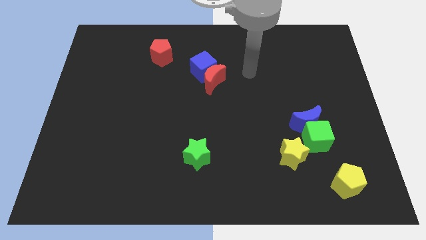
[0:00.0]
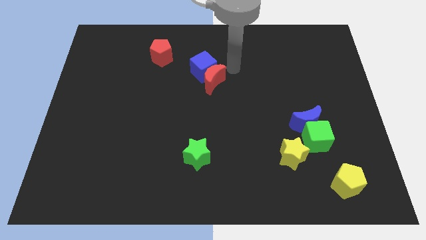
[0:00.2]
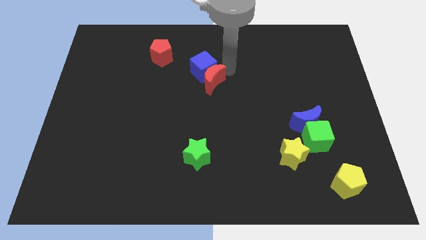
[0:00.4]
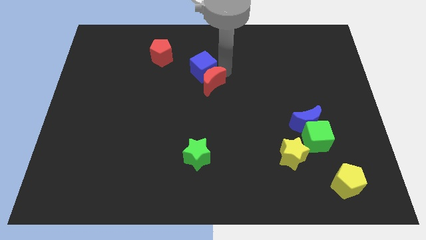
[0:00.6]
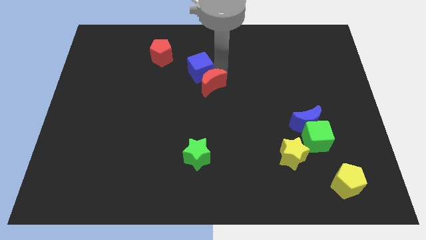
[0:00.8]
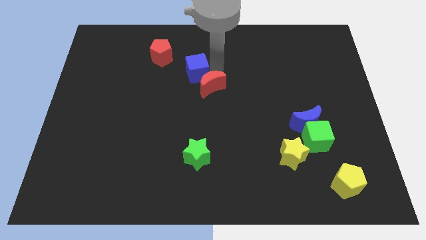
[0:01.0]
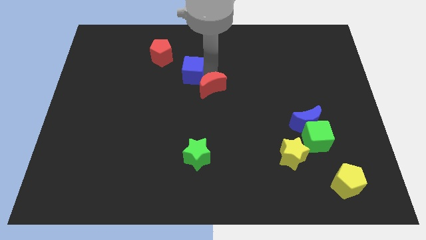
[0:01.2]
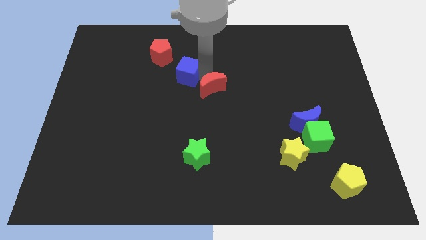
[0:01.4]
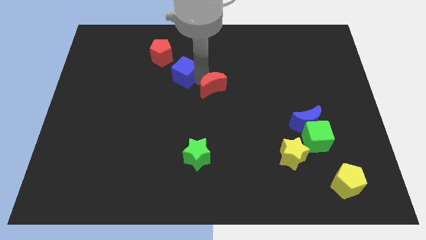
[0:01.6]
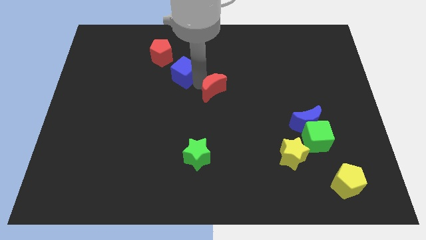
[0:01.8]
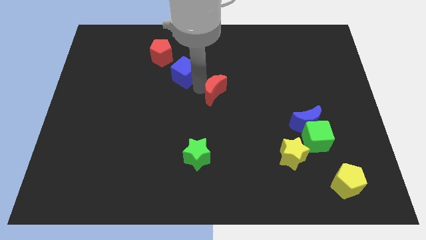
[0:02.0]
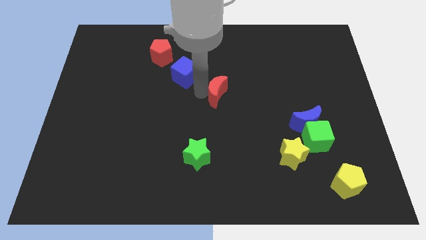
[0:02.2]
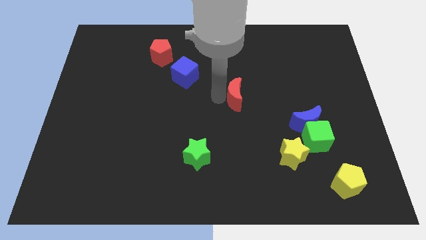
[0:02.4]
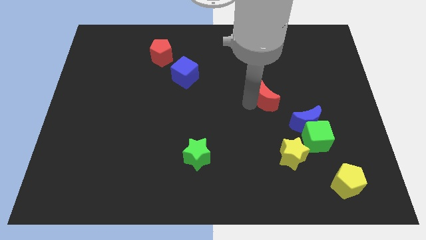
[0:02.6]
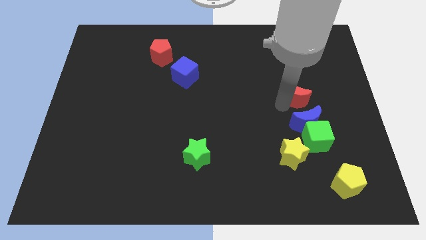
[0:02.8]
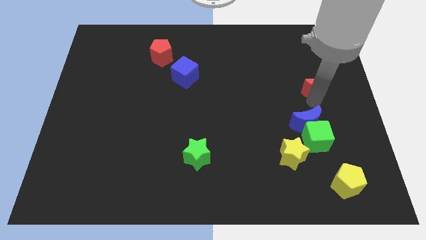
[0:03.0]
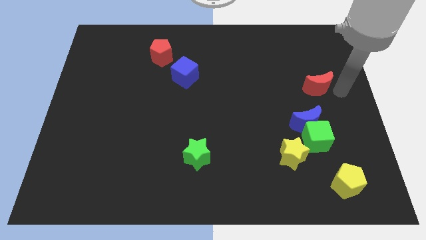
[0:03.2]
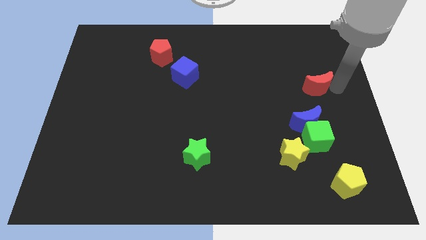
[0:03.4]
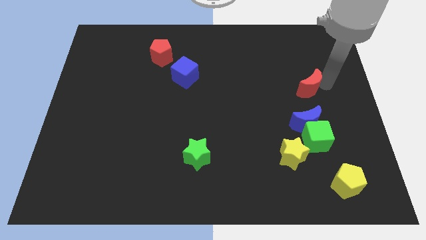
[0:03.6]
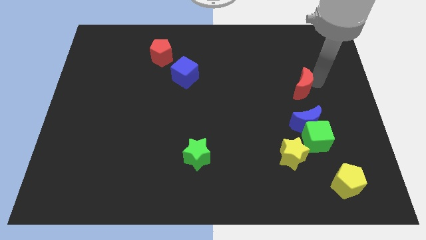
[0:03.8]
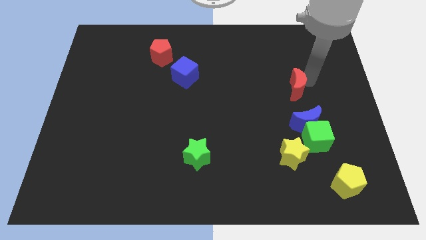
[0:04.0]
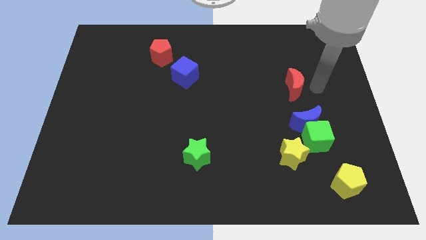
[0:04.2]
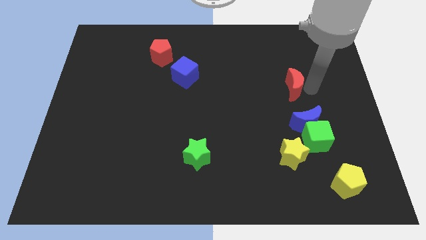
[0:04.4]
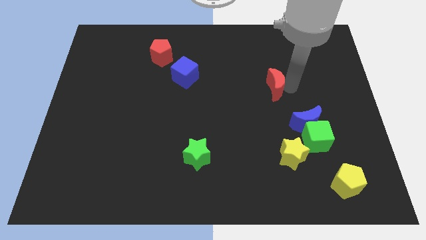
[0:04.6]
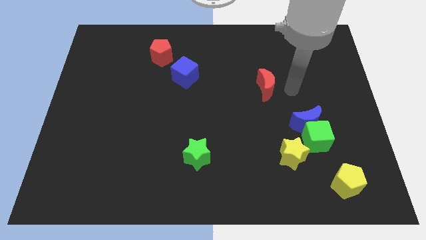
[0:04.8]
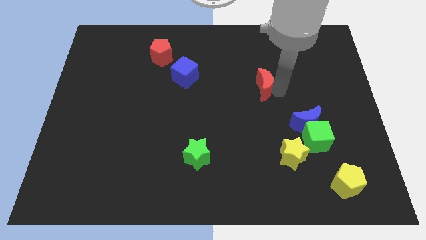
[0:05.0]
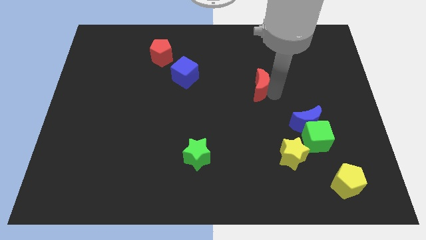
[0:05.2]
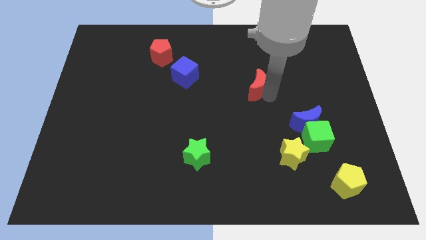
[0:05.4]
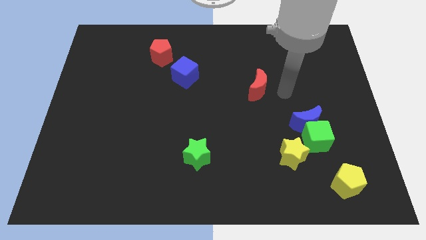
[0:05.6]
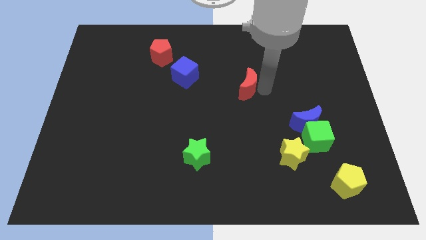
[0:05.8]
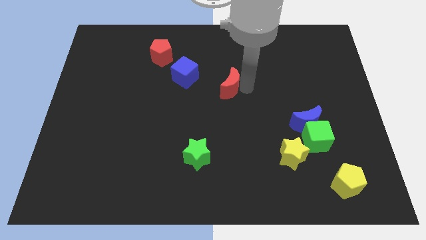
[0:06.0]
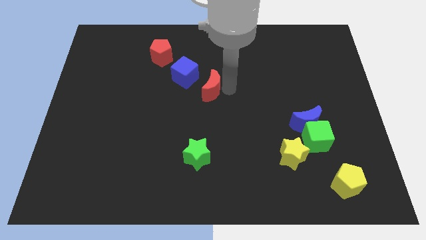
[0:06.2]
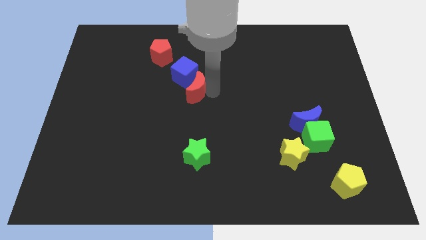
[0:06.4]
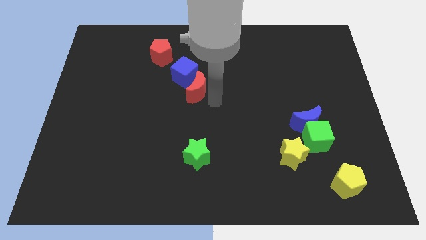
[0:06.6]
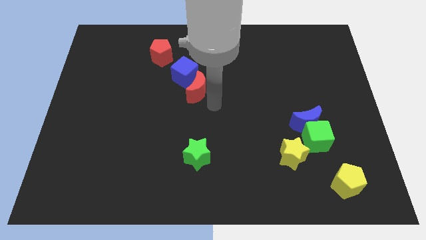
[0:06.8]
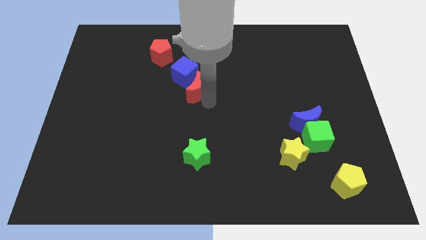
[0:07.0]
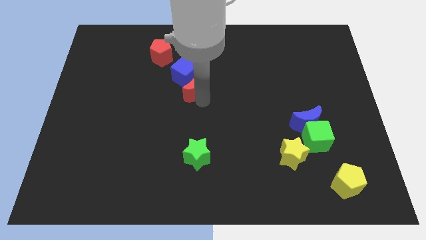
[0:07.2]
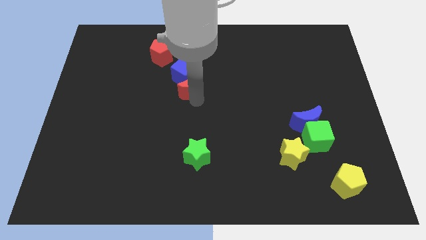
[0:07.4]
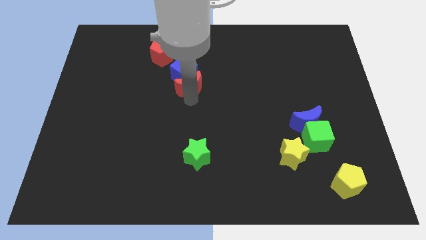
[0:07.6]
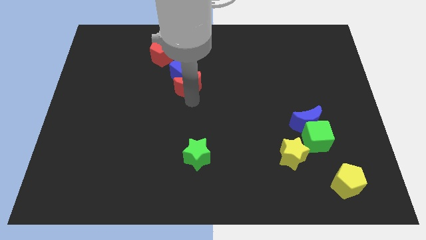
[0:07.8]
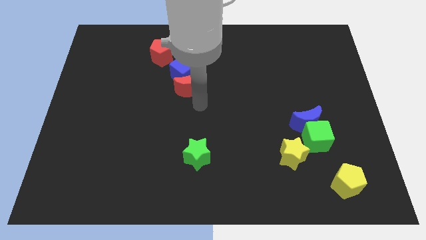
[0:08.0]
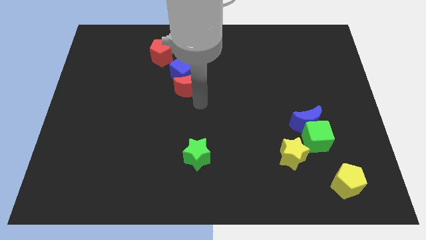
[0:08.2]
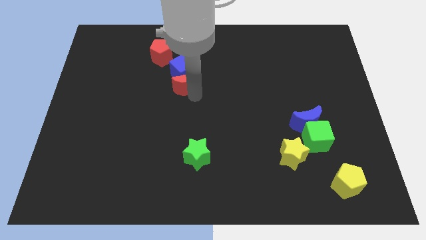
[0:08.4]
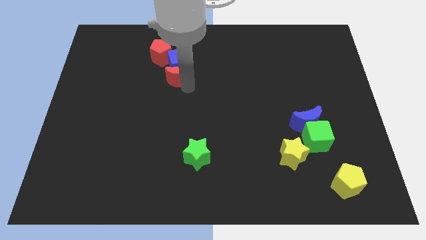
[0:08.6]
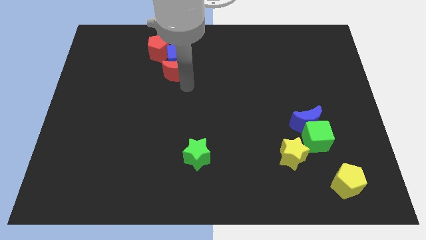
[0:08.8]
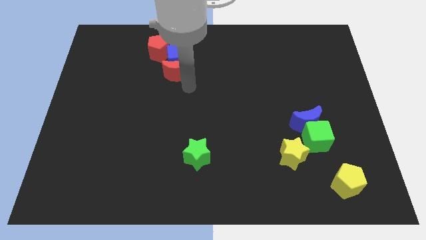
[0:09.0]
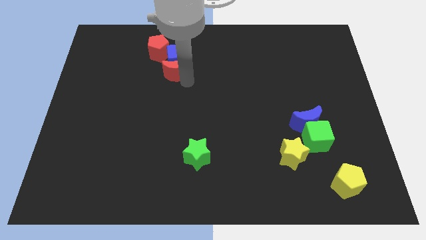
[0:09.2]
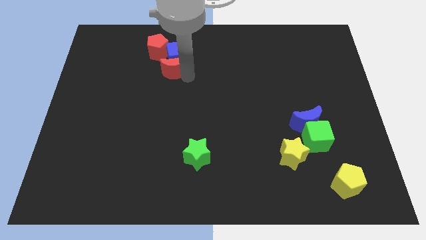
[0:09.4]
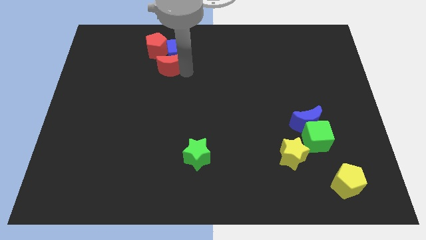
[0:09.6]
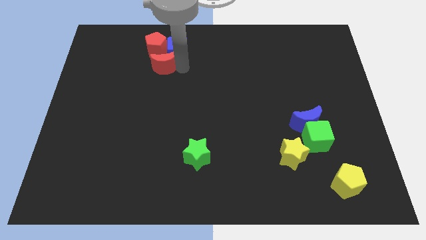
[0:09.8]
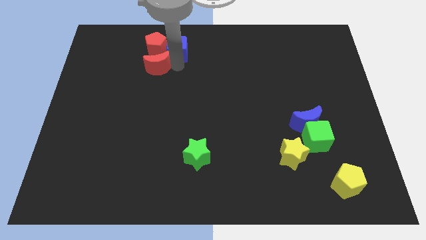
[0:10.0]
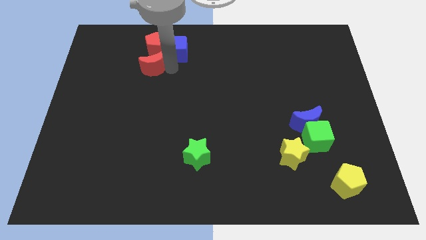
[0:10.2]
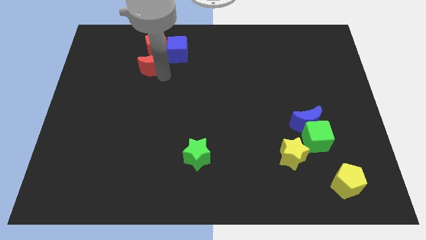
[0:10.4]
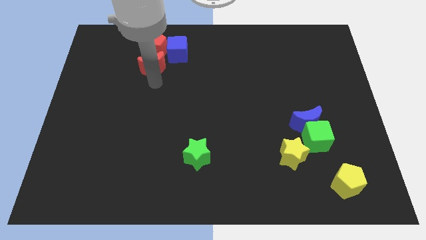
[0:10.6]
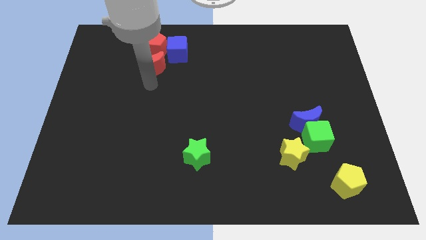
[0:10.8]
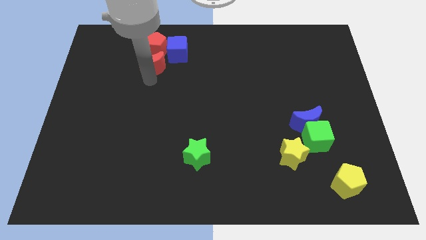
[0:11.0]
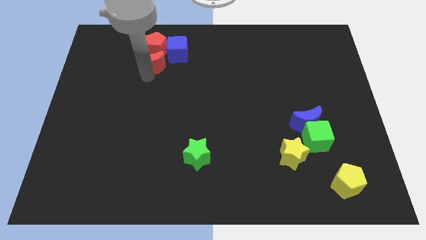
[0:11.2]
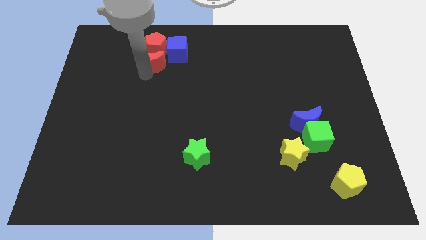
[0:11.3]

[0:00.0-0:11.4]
put the red moon close to the red pentagon

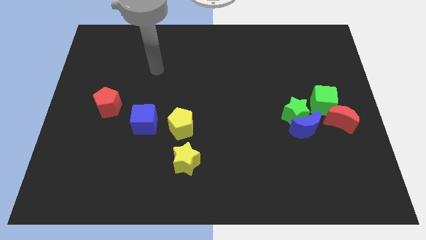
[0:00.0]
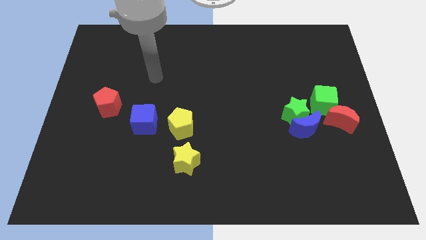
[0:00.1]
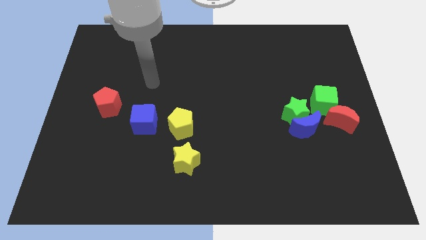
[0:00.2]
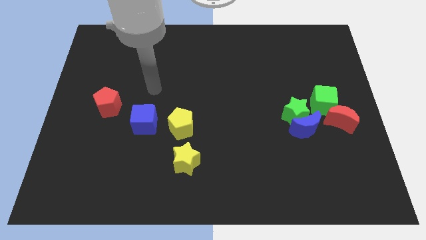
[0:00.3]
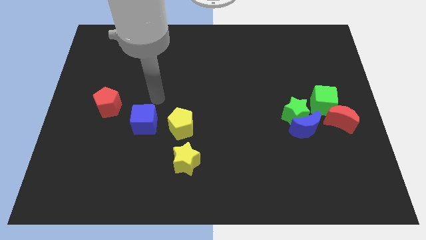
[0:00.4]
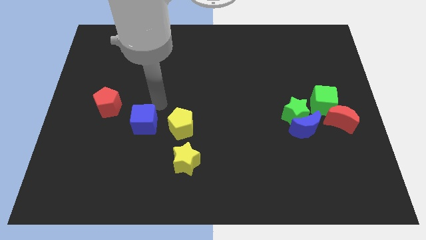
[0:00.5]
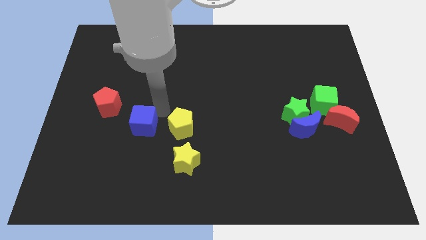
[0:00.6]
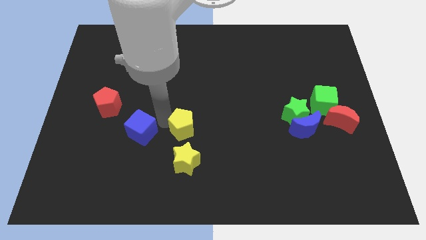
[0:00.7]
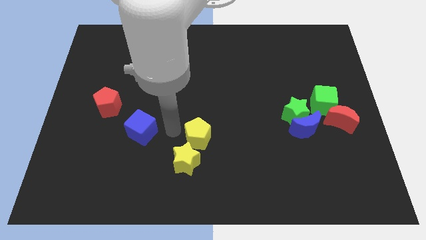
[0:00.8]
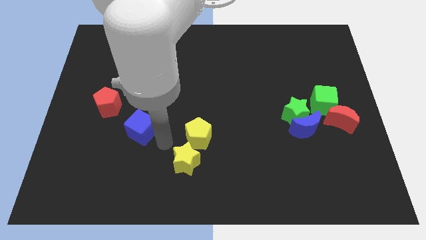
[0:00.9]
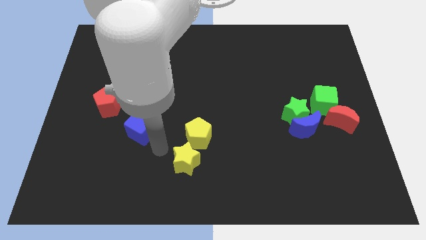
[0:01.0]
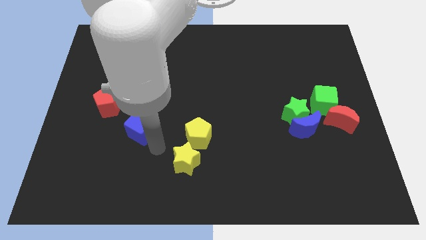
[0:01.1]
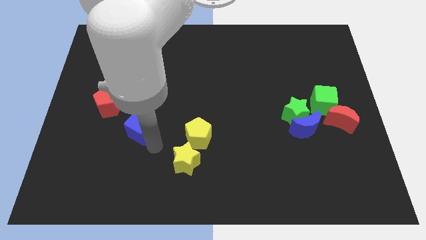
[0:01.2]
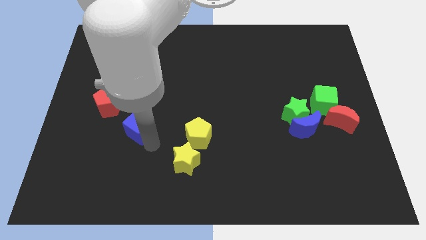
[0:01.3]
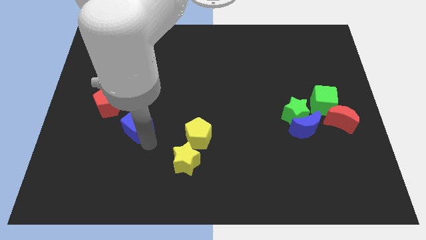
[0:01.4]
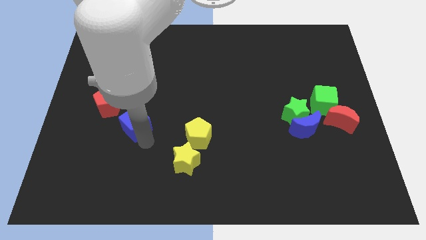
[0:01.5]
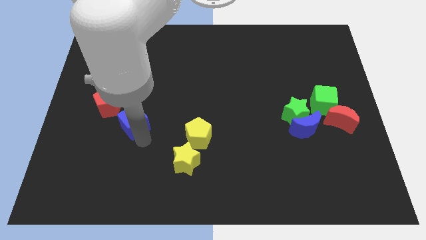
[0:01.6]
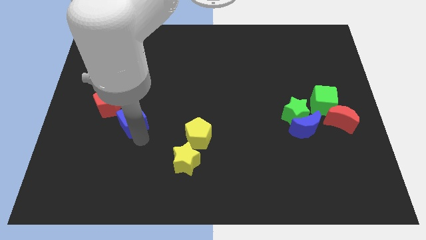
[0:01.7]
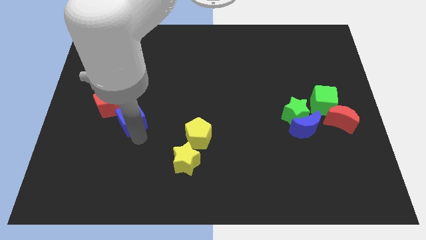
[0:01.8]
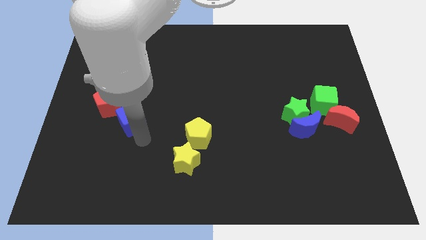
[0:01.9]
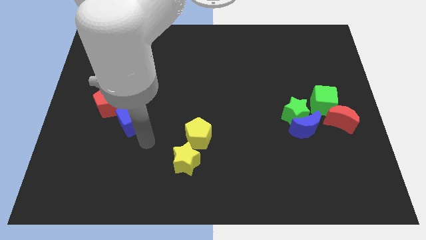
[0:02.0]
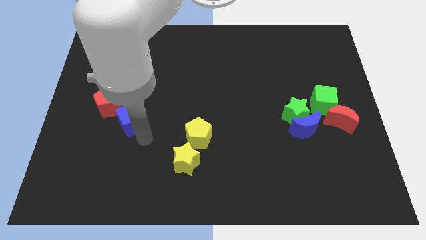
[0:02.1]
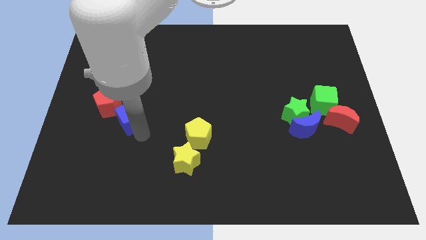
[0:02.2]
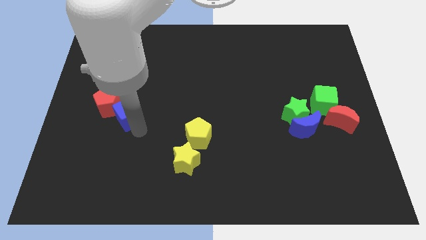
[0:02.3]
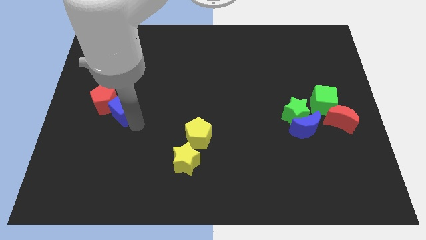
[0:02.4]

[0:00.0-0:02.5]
put the blue cube close to the red pentagon
